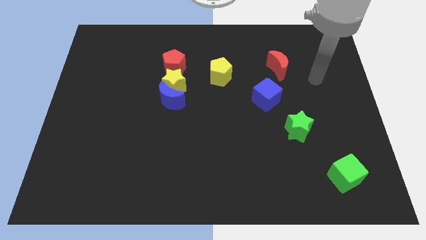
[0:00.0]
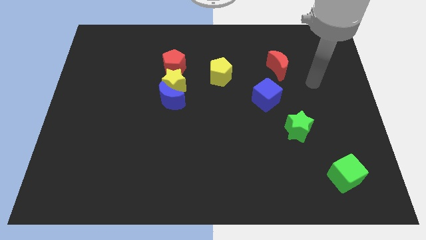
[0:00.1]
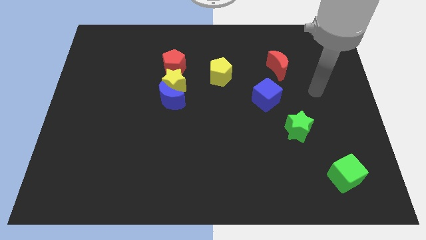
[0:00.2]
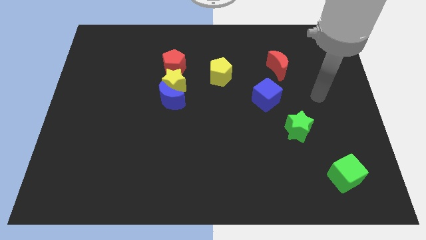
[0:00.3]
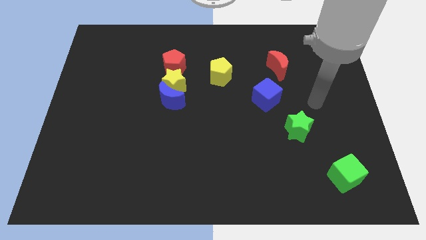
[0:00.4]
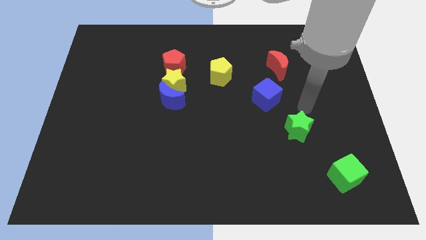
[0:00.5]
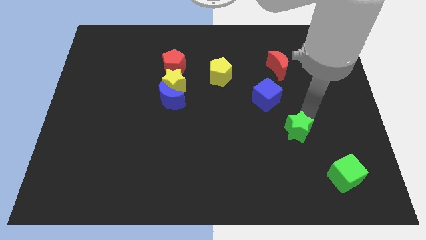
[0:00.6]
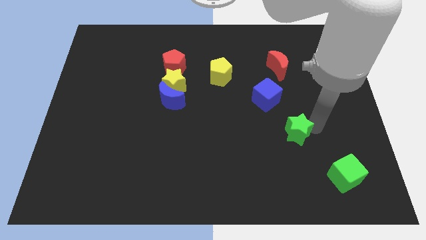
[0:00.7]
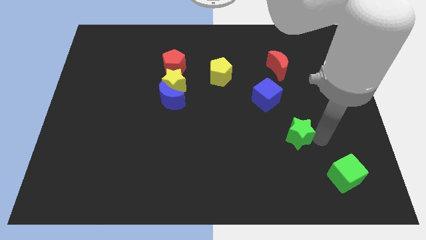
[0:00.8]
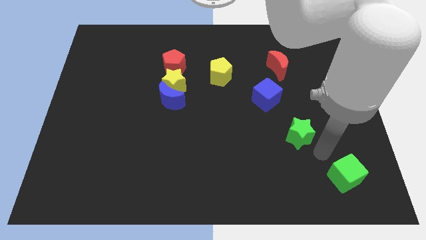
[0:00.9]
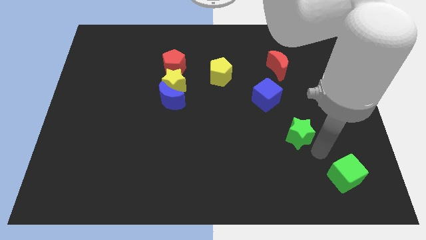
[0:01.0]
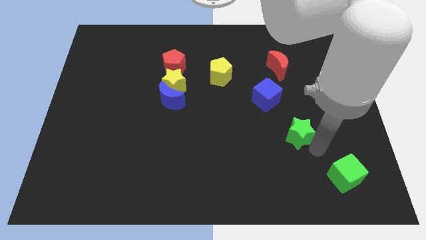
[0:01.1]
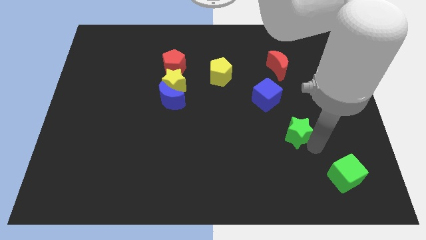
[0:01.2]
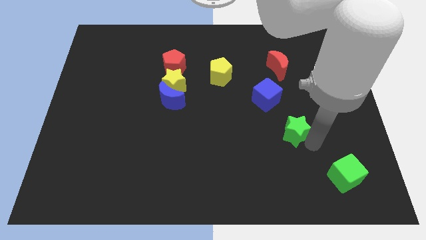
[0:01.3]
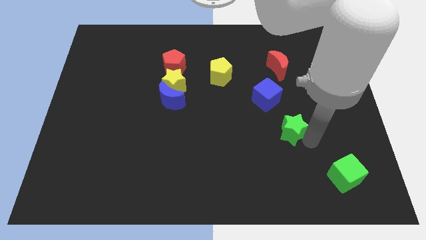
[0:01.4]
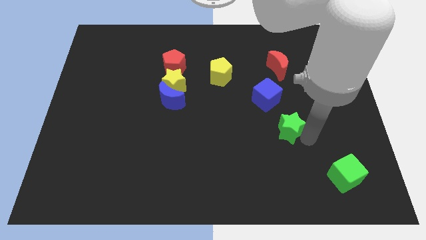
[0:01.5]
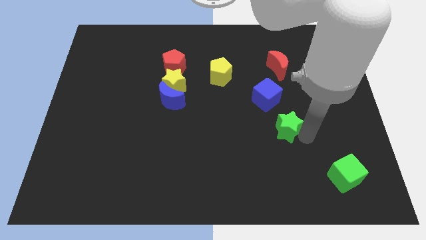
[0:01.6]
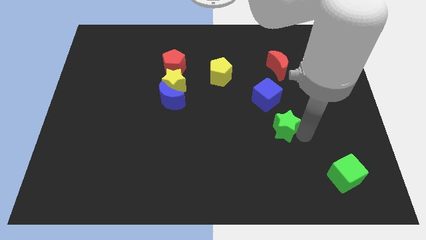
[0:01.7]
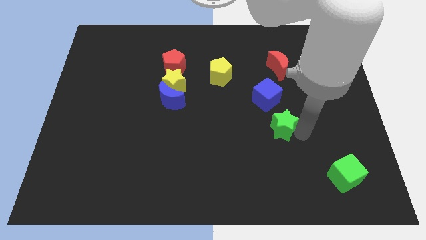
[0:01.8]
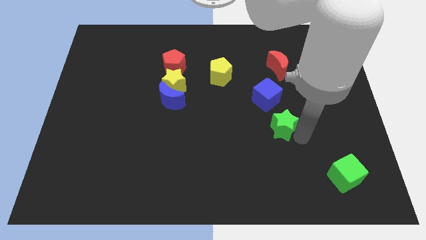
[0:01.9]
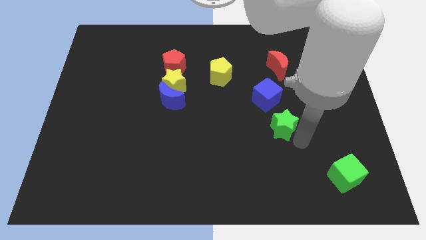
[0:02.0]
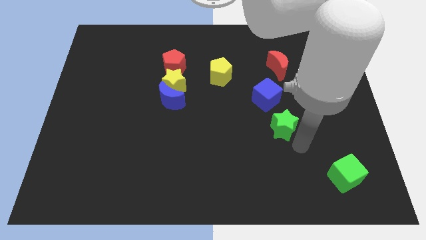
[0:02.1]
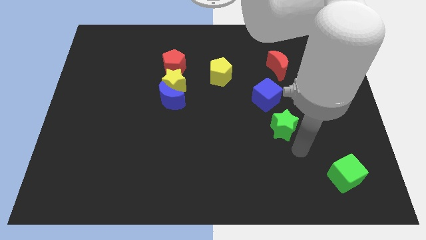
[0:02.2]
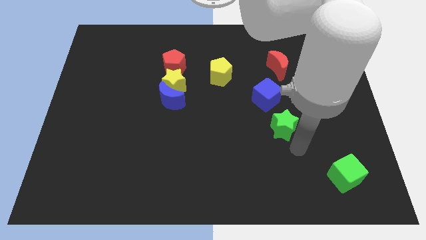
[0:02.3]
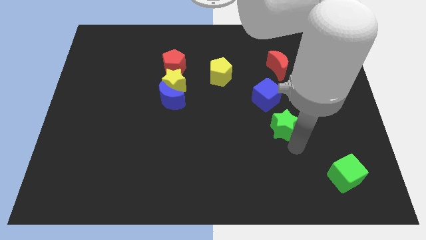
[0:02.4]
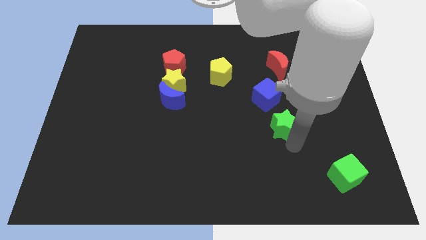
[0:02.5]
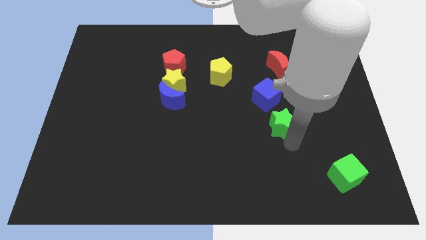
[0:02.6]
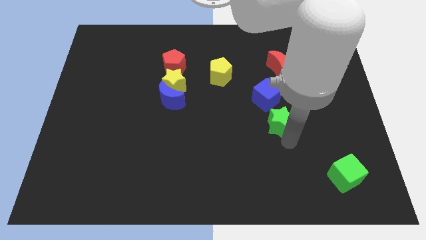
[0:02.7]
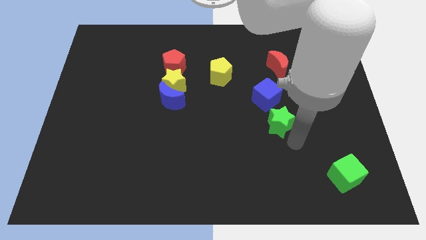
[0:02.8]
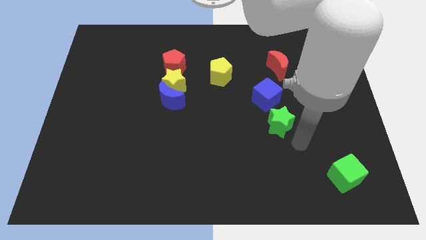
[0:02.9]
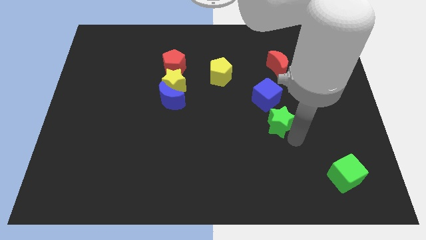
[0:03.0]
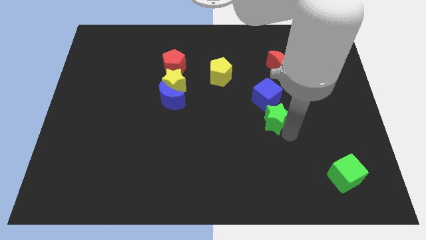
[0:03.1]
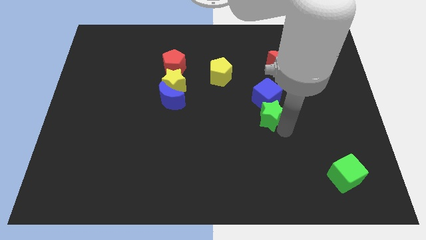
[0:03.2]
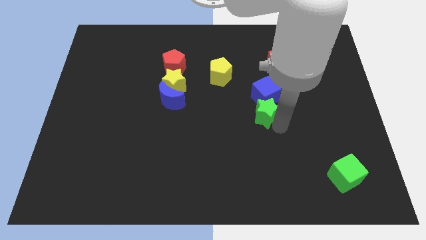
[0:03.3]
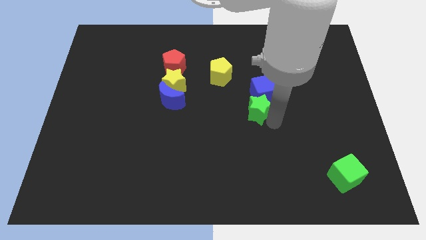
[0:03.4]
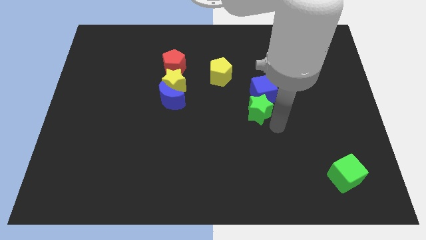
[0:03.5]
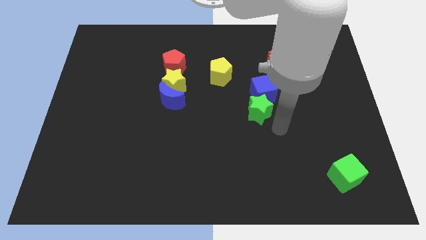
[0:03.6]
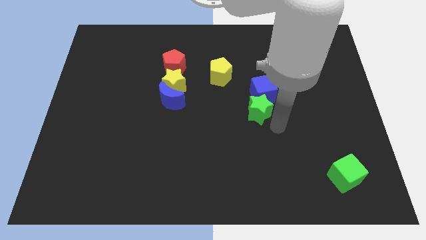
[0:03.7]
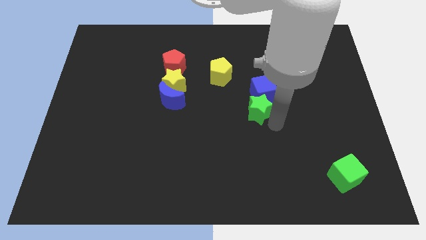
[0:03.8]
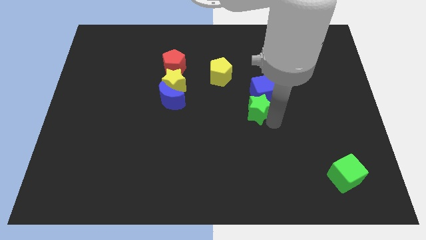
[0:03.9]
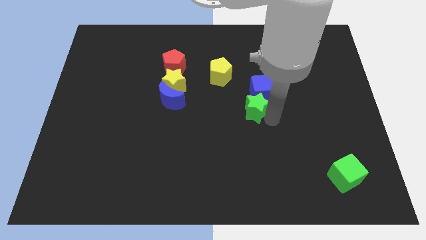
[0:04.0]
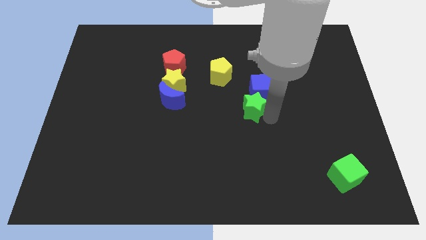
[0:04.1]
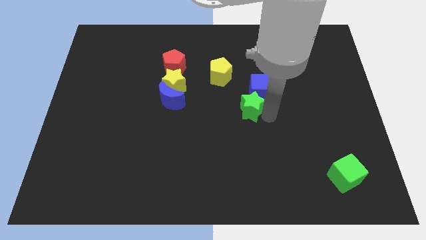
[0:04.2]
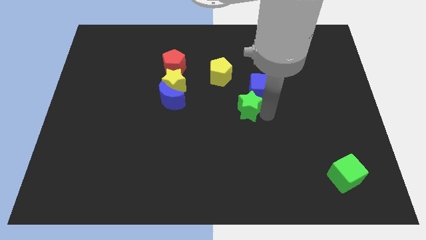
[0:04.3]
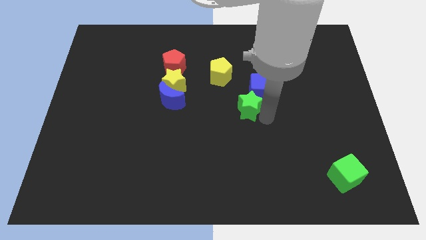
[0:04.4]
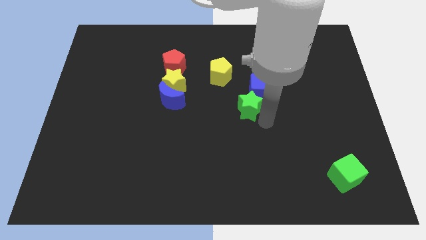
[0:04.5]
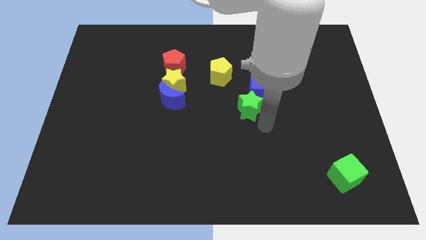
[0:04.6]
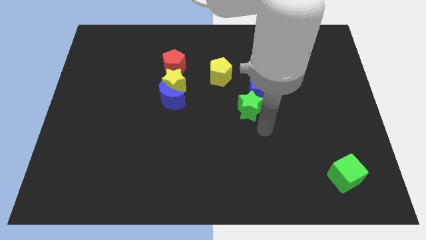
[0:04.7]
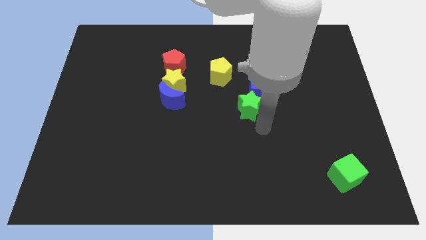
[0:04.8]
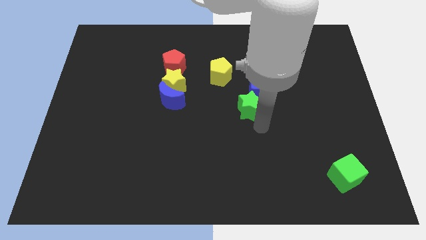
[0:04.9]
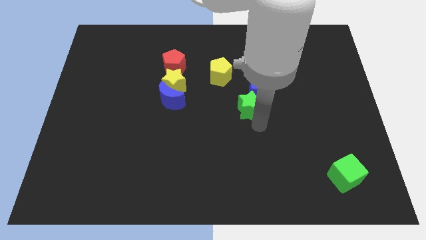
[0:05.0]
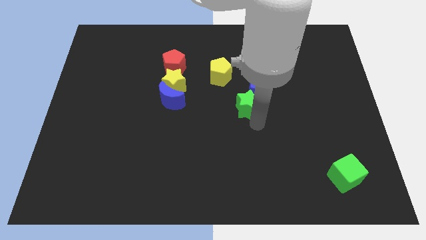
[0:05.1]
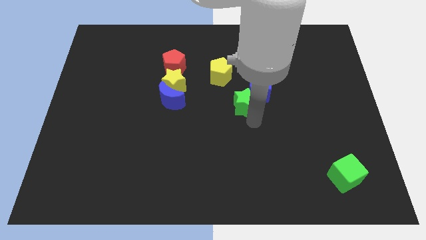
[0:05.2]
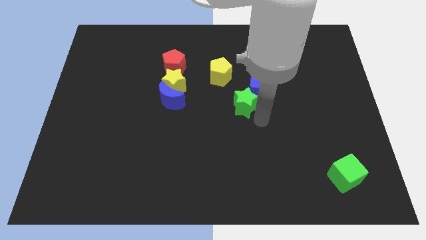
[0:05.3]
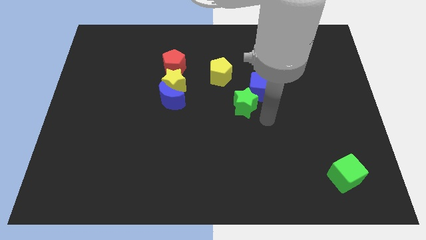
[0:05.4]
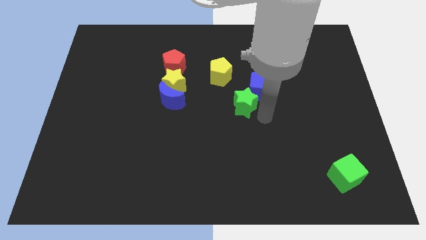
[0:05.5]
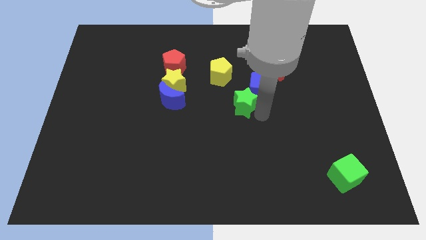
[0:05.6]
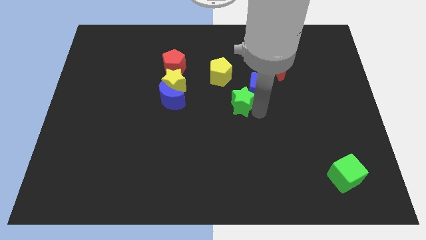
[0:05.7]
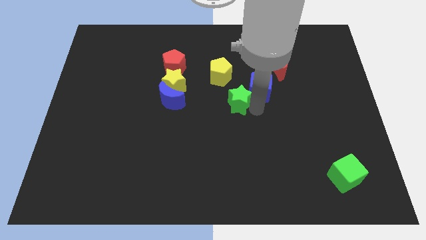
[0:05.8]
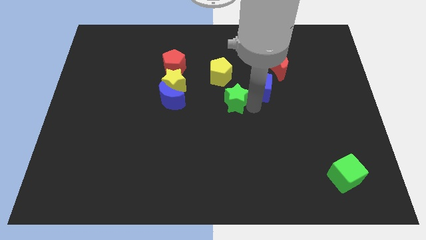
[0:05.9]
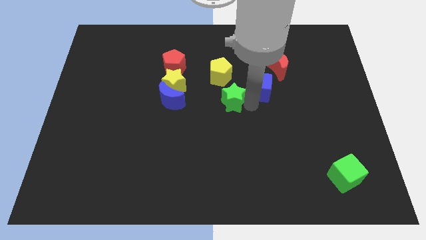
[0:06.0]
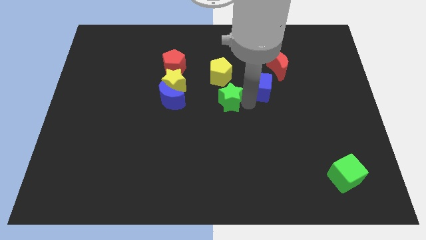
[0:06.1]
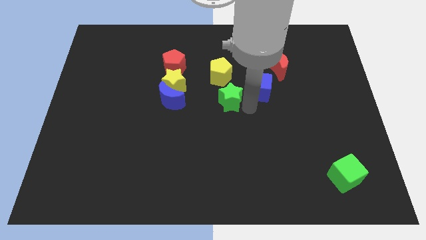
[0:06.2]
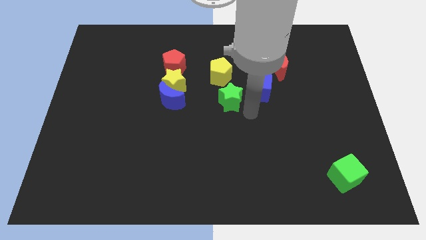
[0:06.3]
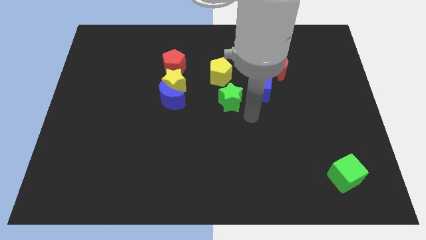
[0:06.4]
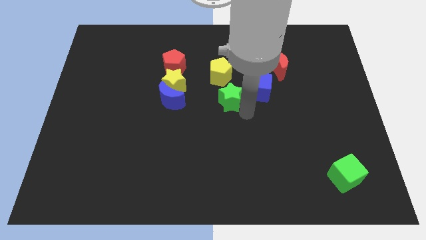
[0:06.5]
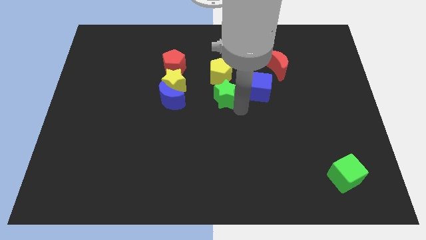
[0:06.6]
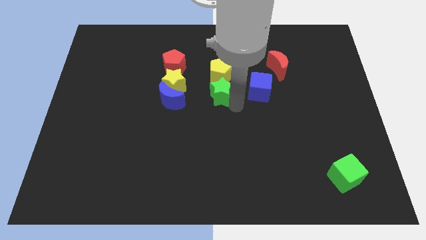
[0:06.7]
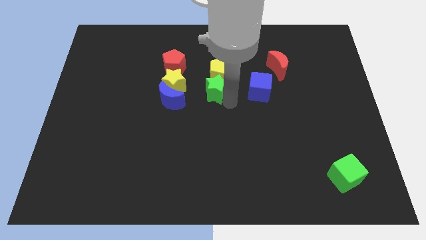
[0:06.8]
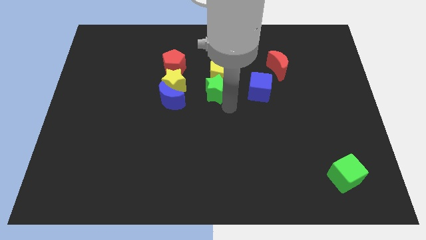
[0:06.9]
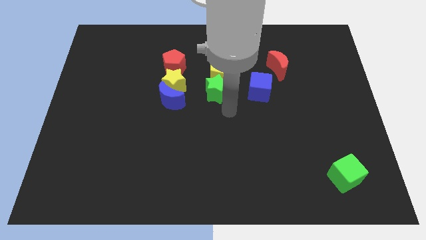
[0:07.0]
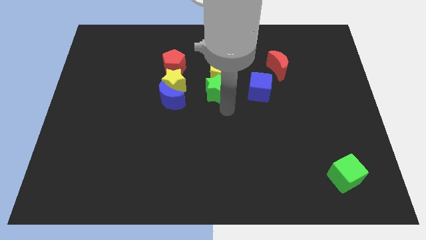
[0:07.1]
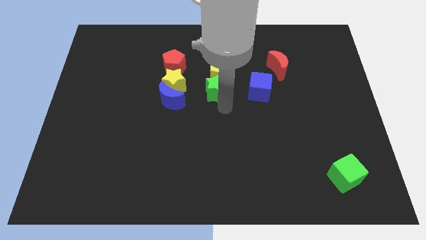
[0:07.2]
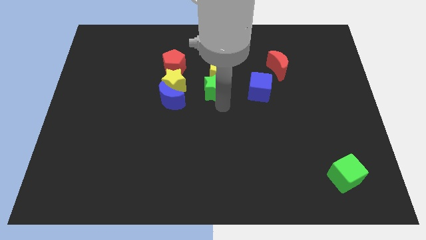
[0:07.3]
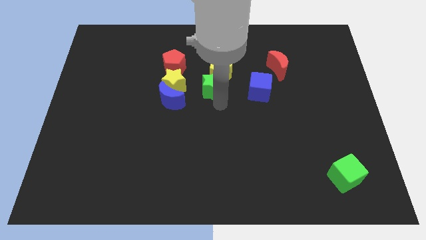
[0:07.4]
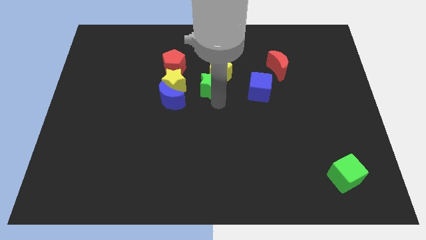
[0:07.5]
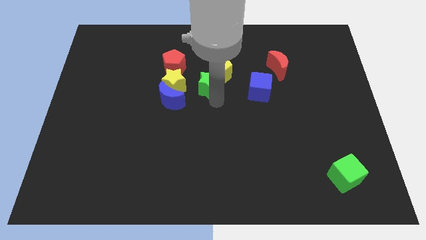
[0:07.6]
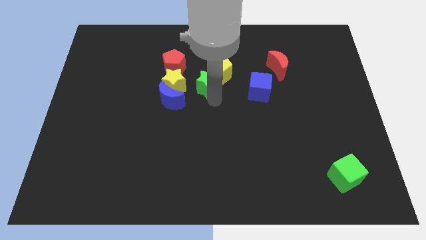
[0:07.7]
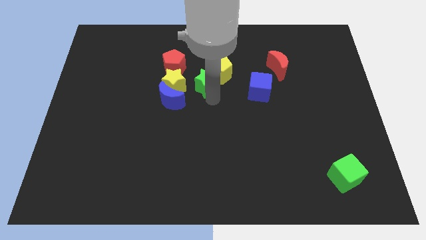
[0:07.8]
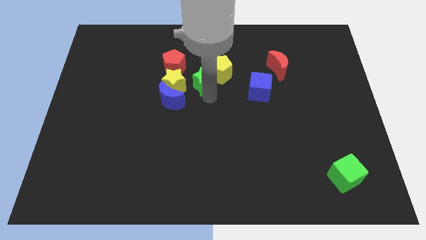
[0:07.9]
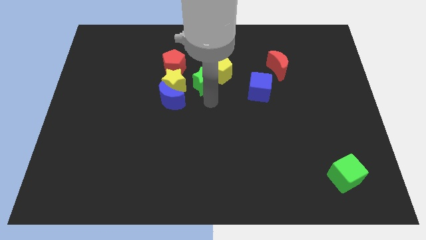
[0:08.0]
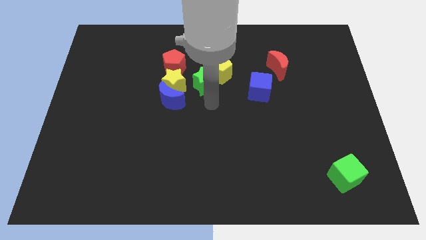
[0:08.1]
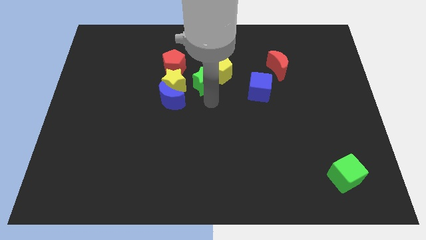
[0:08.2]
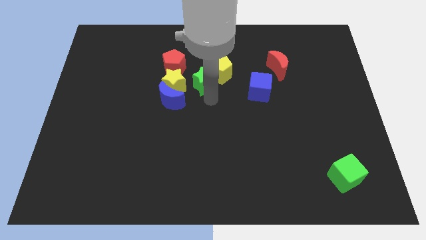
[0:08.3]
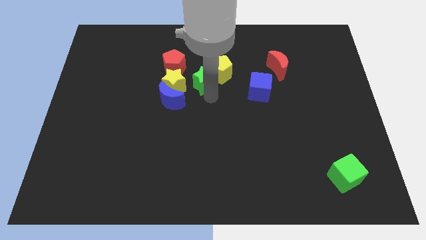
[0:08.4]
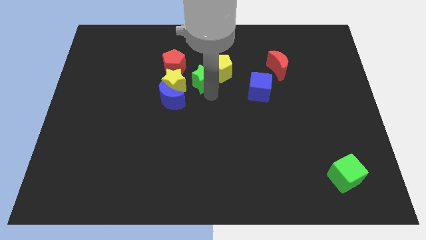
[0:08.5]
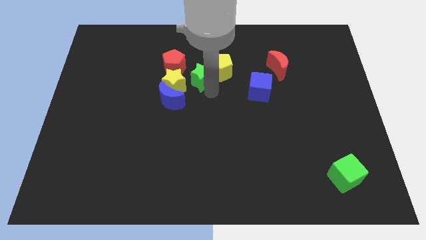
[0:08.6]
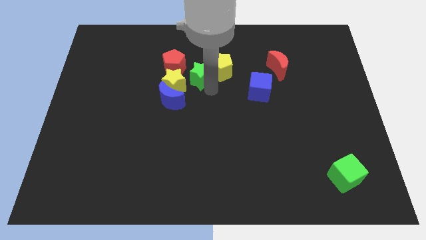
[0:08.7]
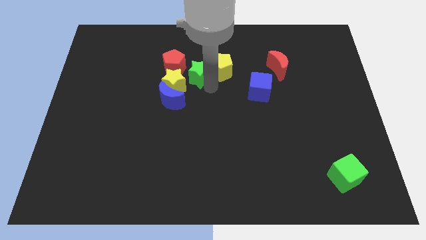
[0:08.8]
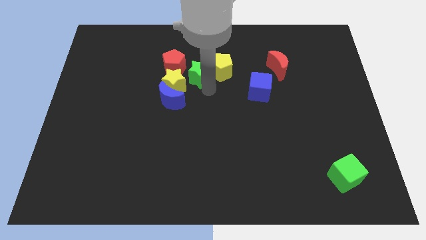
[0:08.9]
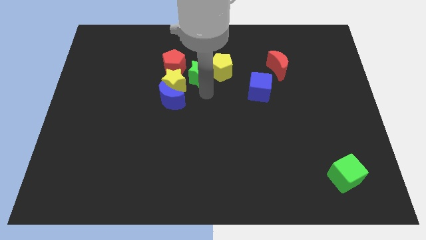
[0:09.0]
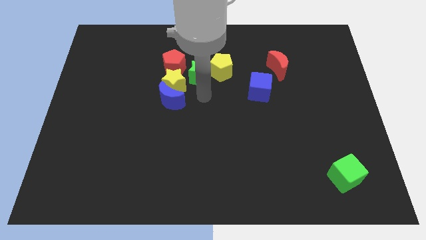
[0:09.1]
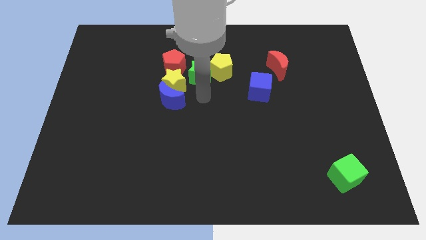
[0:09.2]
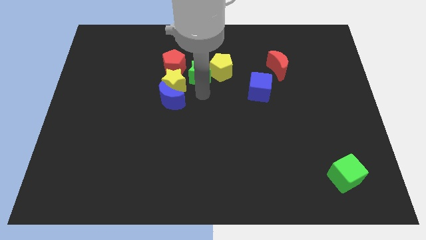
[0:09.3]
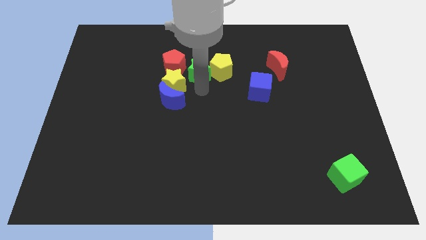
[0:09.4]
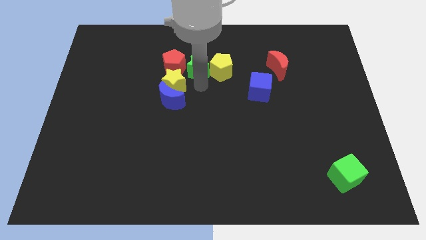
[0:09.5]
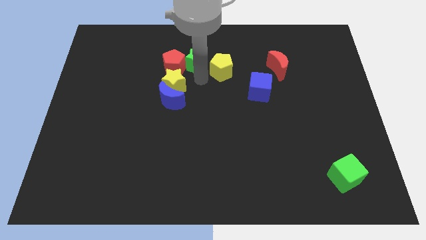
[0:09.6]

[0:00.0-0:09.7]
put the green star above the yellow star
